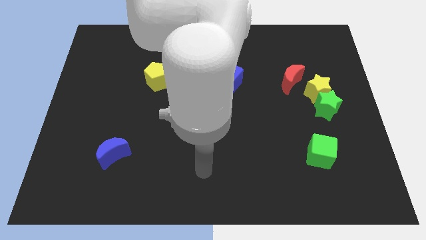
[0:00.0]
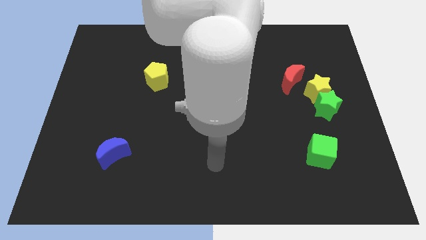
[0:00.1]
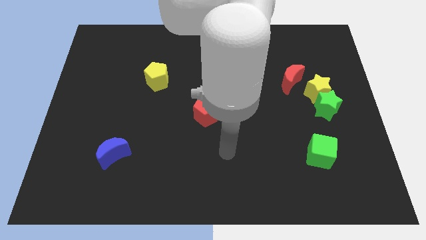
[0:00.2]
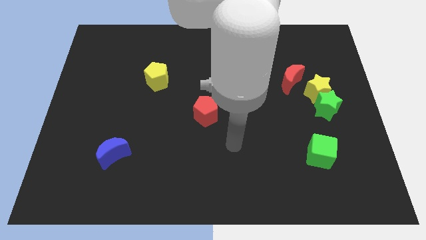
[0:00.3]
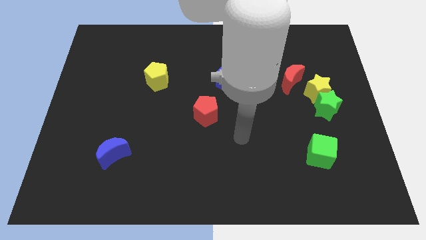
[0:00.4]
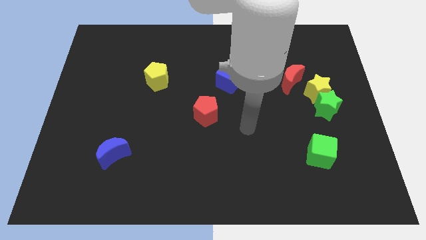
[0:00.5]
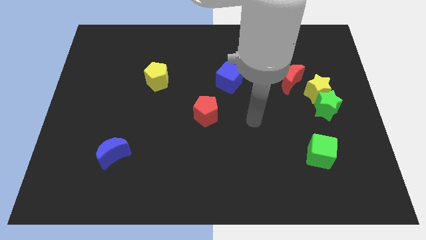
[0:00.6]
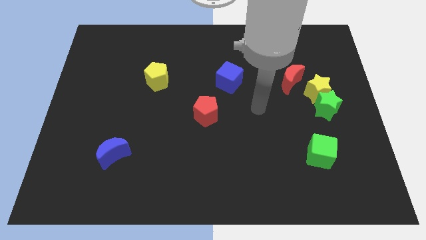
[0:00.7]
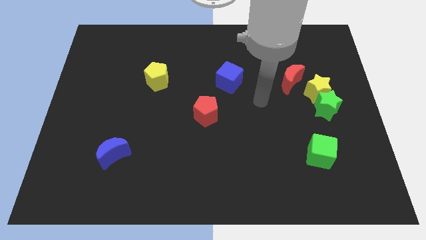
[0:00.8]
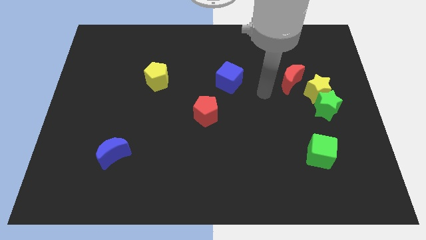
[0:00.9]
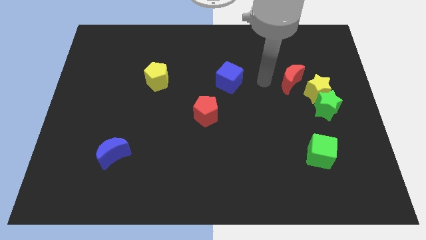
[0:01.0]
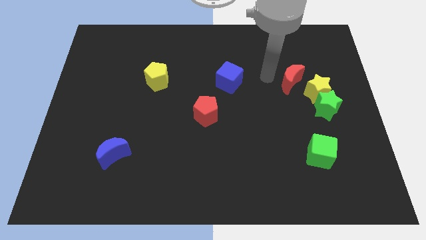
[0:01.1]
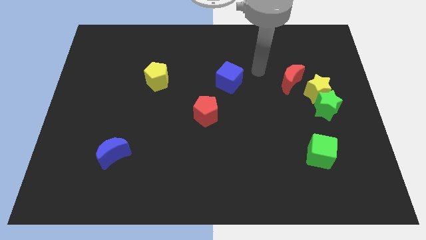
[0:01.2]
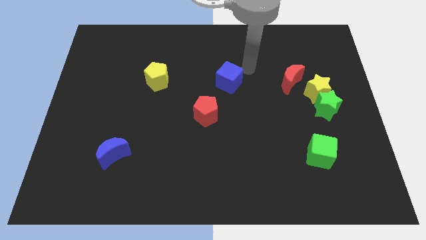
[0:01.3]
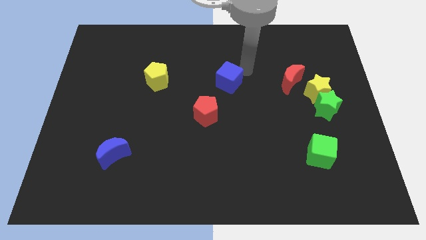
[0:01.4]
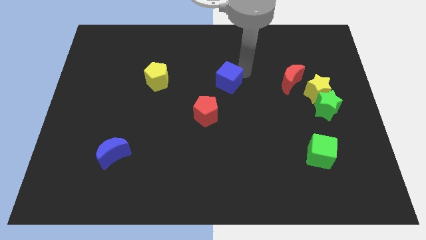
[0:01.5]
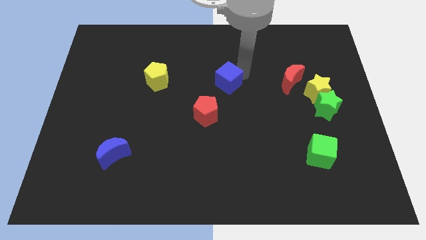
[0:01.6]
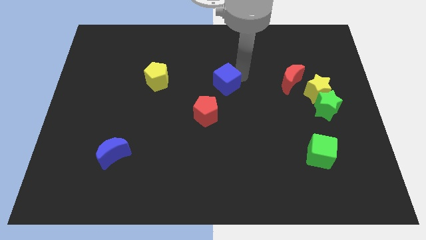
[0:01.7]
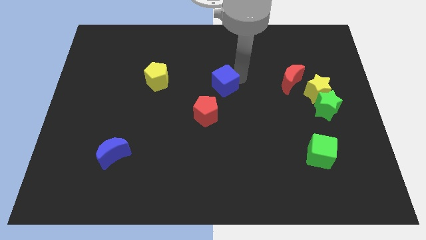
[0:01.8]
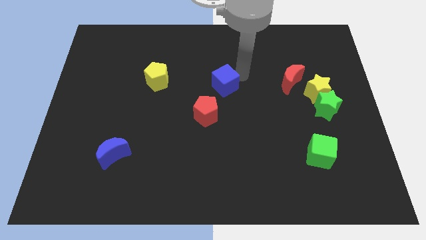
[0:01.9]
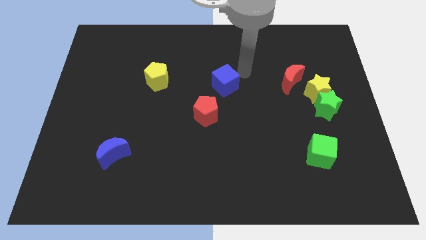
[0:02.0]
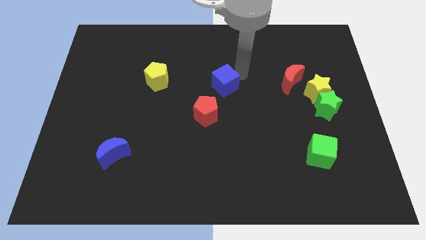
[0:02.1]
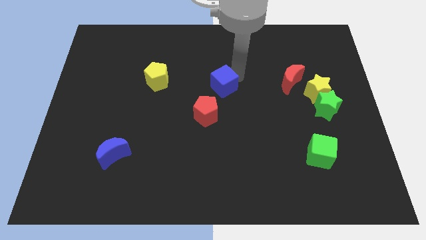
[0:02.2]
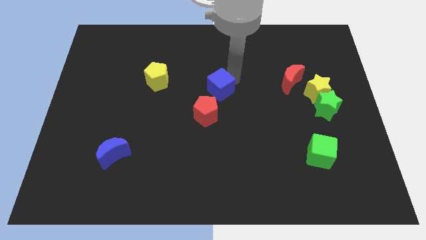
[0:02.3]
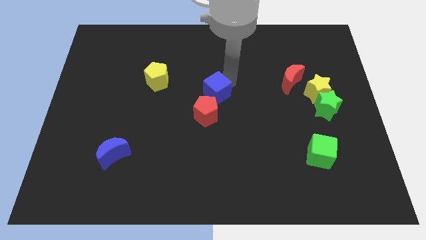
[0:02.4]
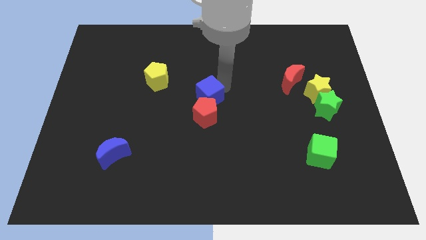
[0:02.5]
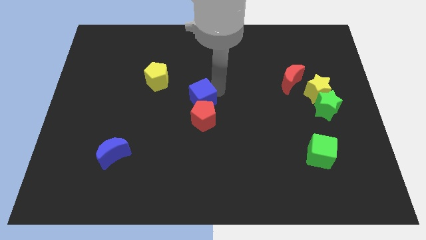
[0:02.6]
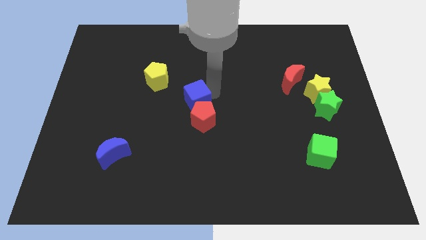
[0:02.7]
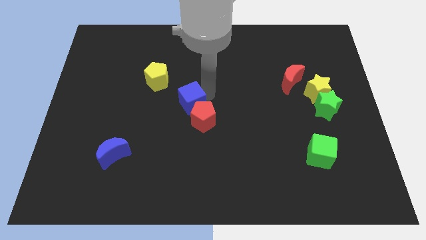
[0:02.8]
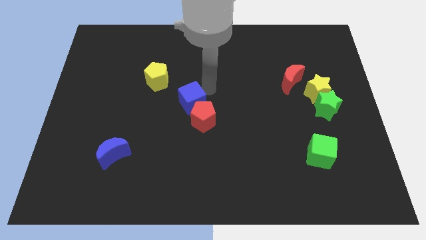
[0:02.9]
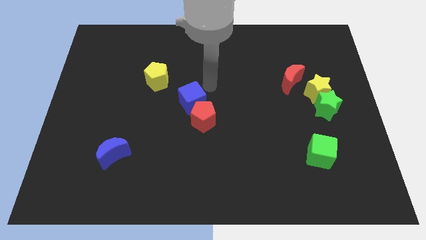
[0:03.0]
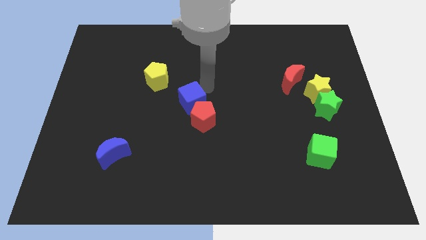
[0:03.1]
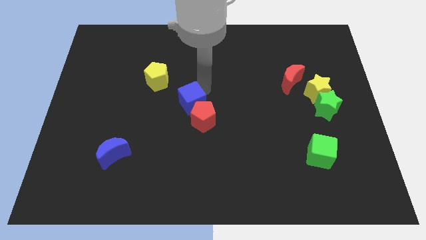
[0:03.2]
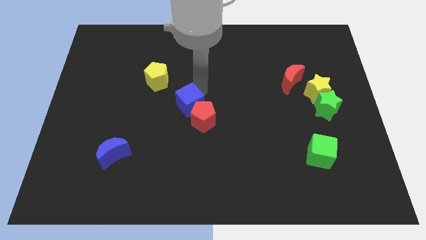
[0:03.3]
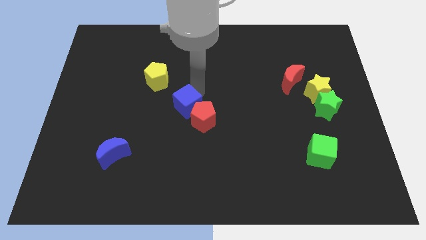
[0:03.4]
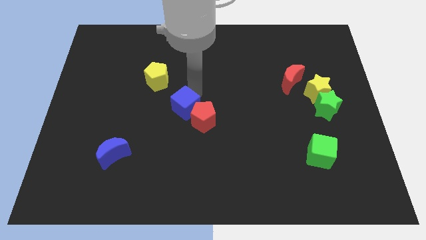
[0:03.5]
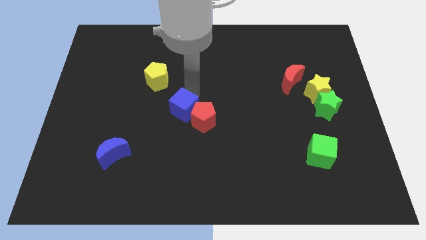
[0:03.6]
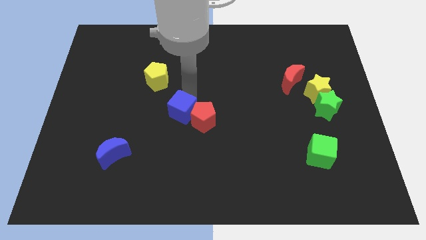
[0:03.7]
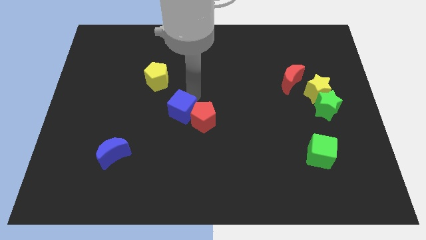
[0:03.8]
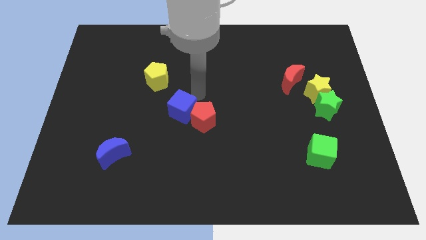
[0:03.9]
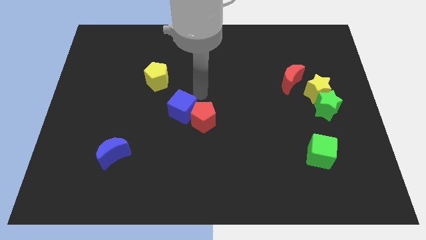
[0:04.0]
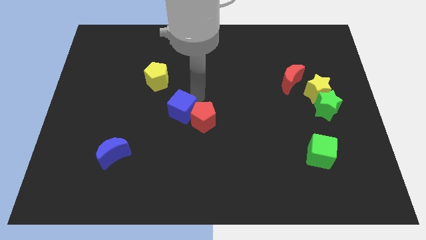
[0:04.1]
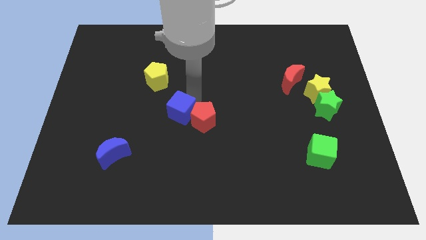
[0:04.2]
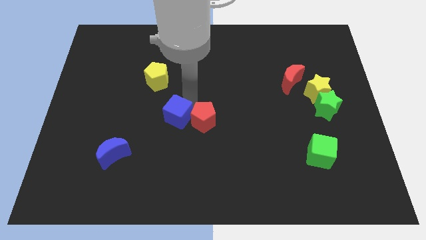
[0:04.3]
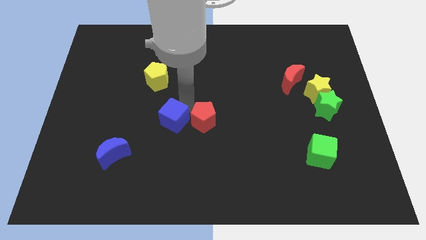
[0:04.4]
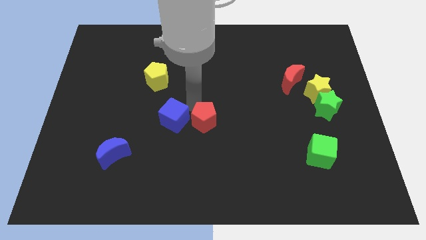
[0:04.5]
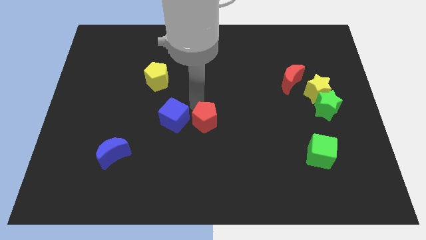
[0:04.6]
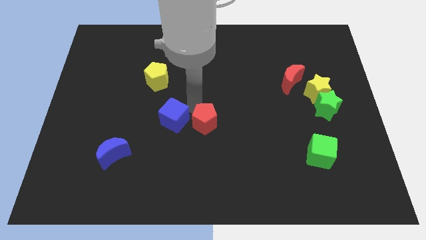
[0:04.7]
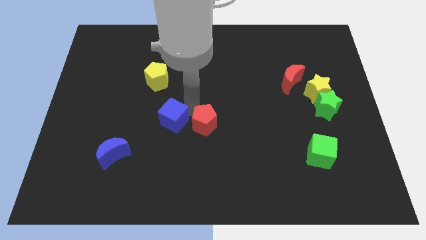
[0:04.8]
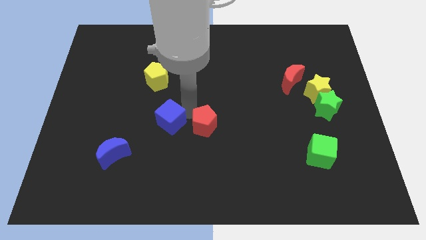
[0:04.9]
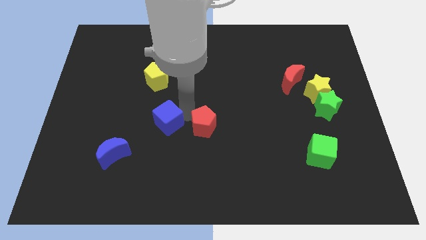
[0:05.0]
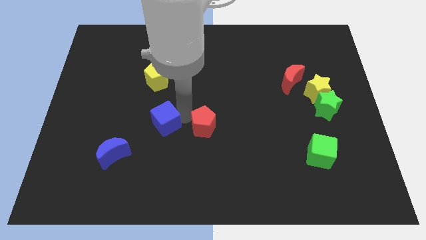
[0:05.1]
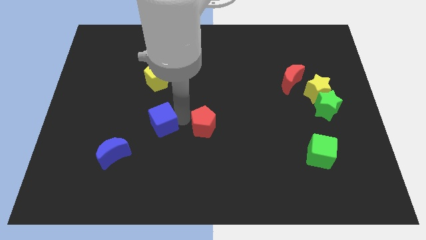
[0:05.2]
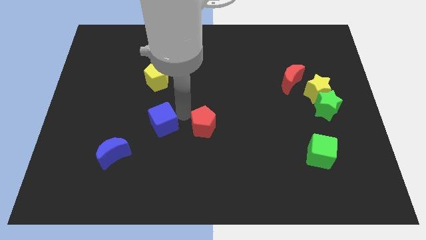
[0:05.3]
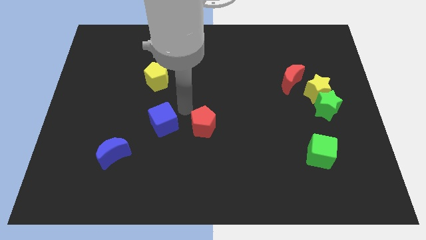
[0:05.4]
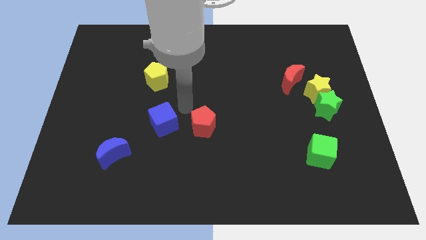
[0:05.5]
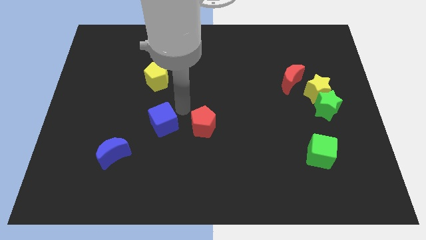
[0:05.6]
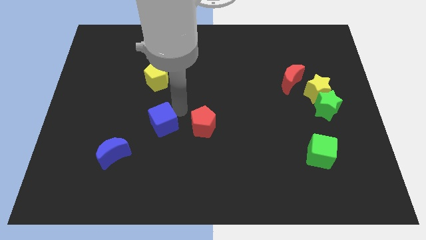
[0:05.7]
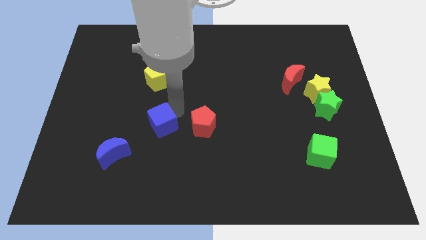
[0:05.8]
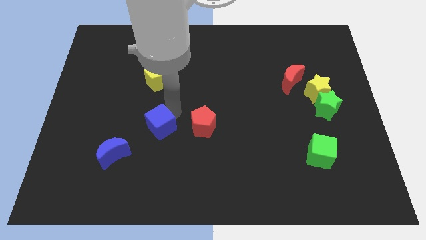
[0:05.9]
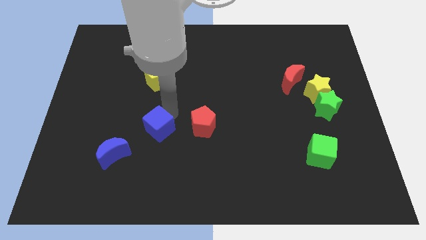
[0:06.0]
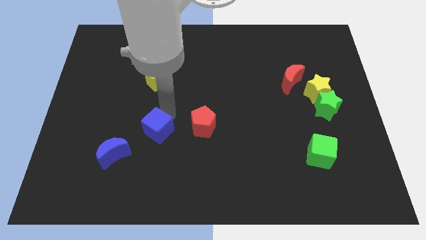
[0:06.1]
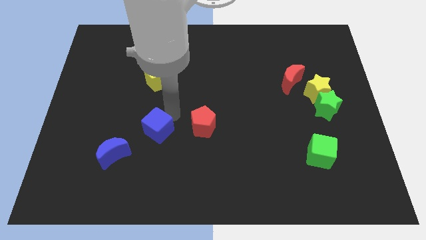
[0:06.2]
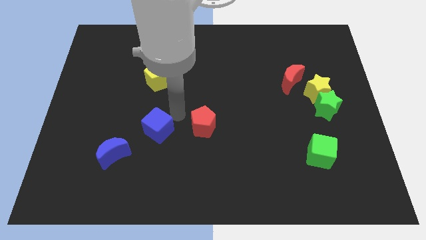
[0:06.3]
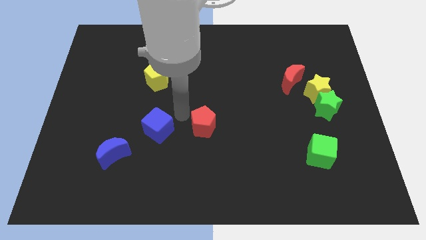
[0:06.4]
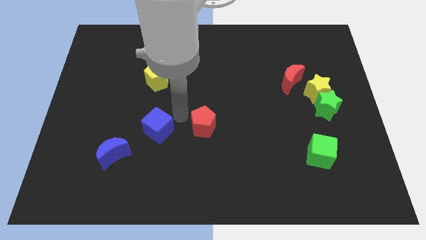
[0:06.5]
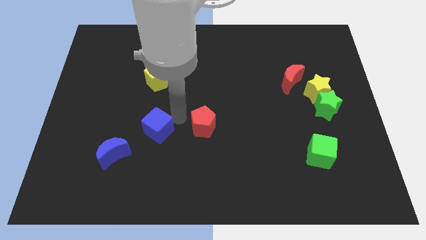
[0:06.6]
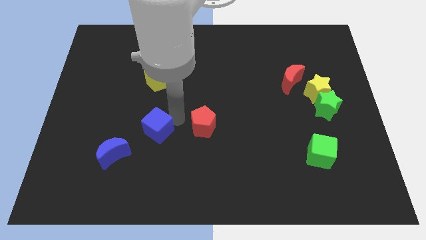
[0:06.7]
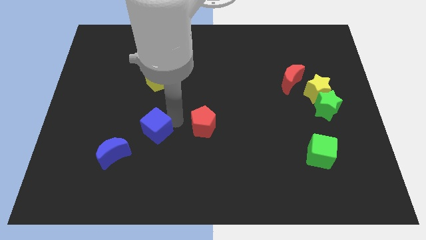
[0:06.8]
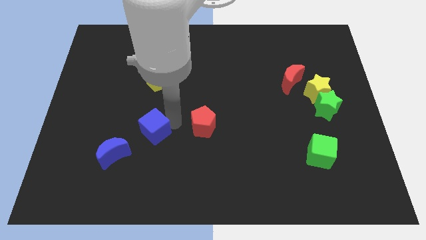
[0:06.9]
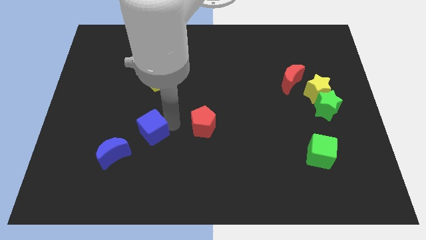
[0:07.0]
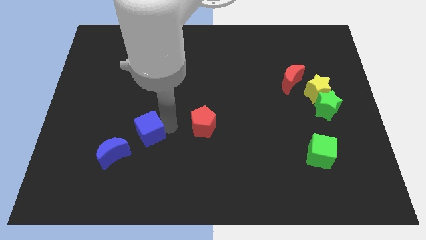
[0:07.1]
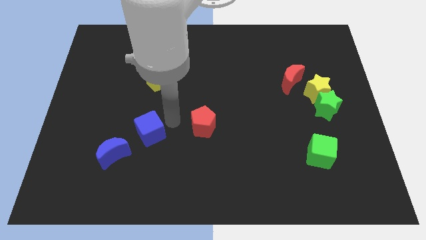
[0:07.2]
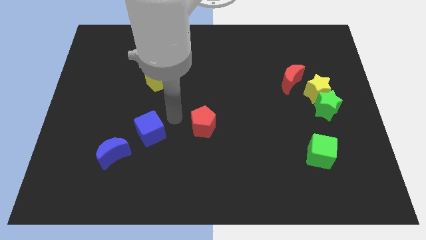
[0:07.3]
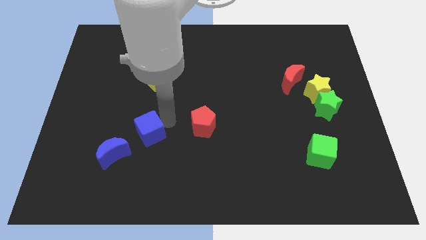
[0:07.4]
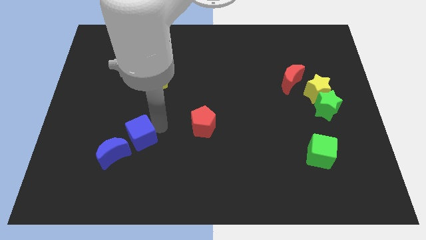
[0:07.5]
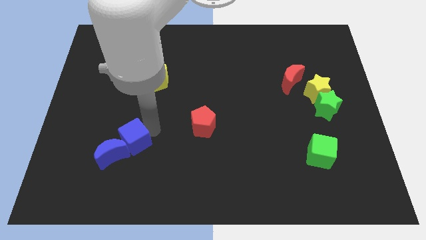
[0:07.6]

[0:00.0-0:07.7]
move the blue cube towards the blue moon
